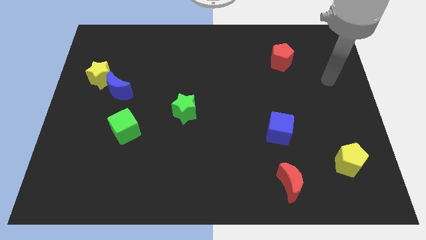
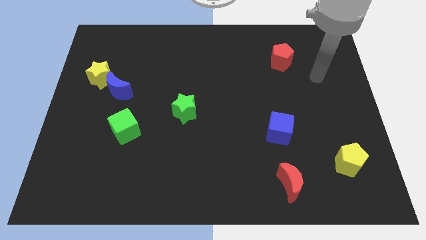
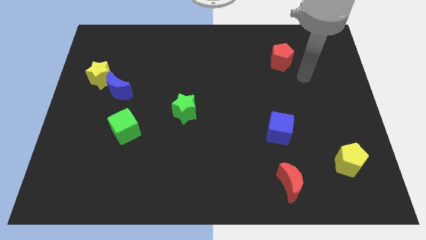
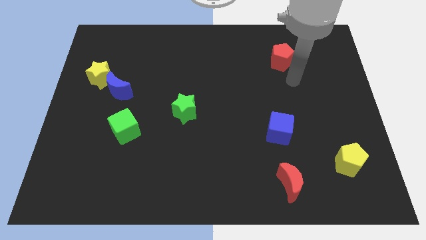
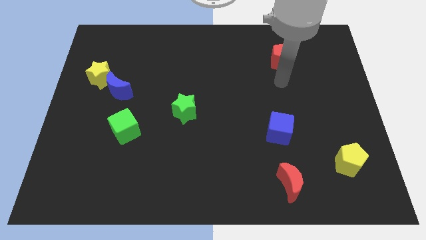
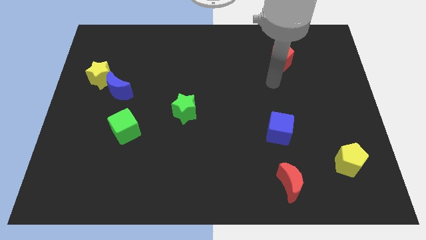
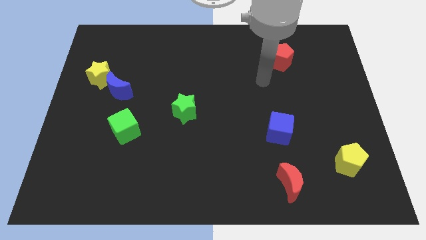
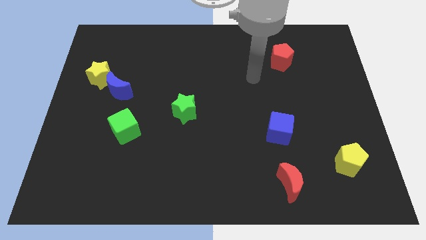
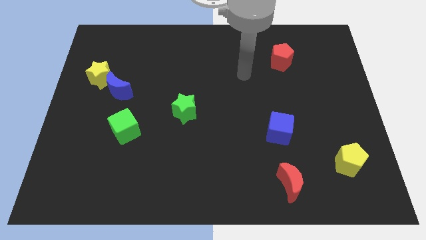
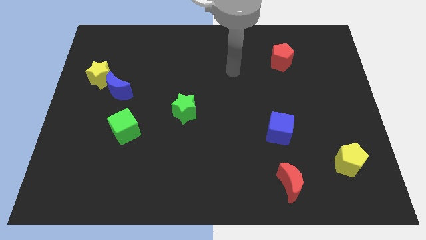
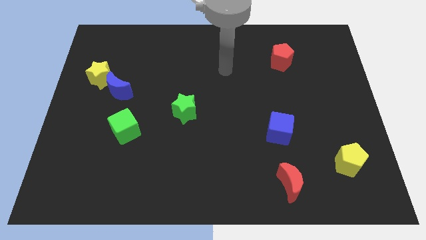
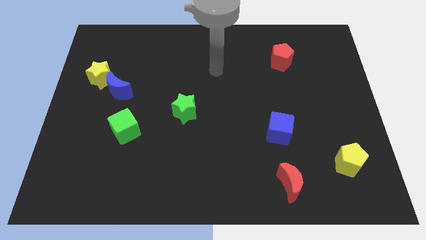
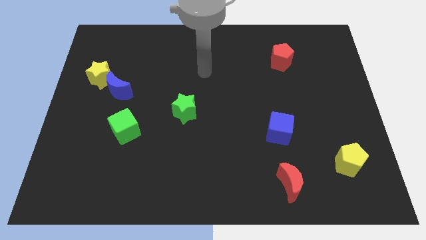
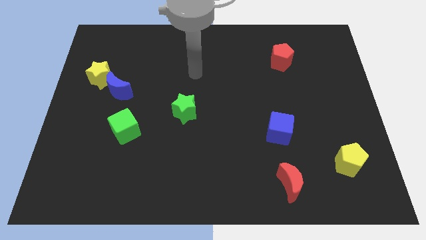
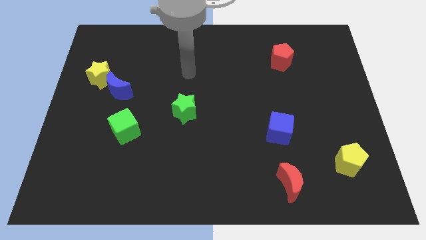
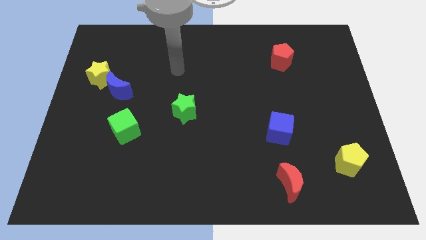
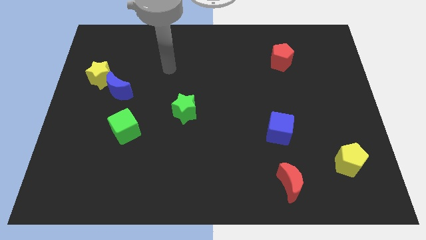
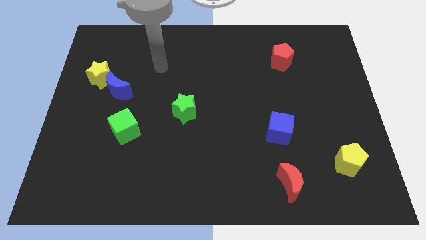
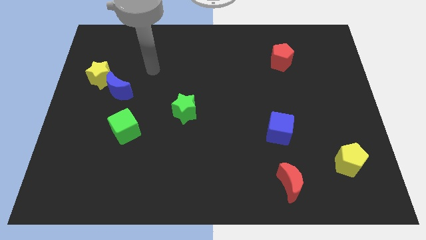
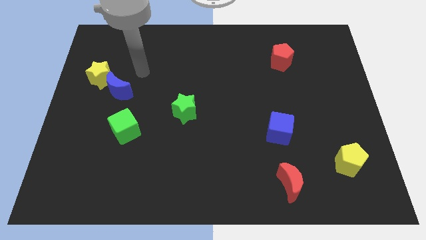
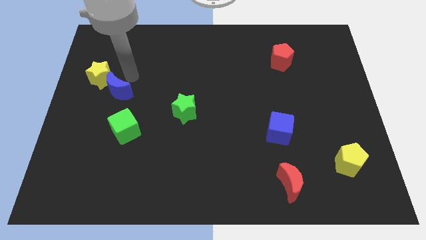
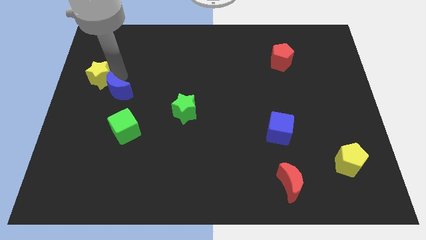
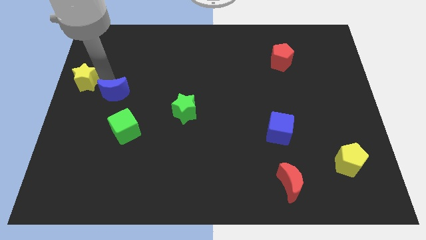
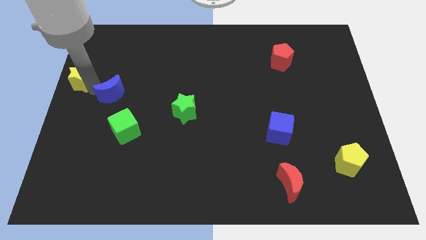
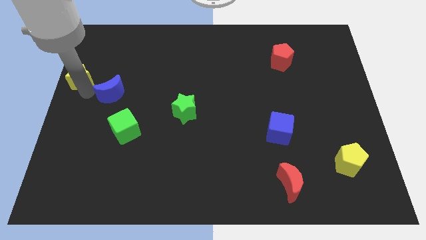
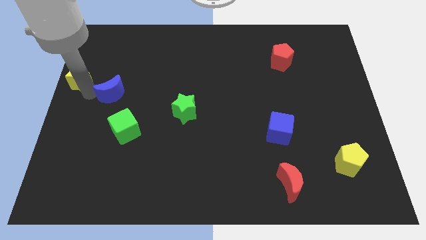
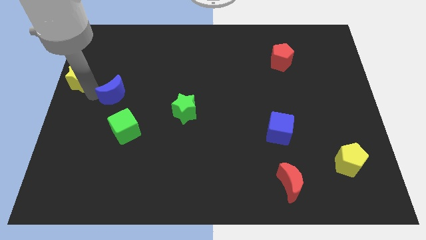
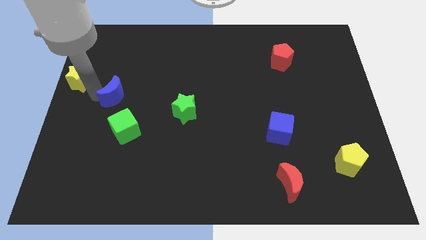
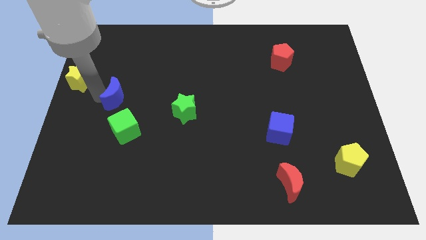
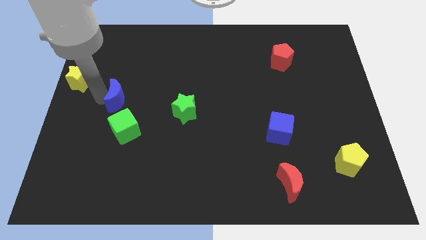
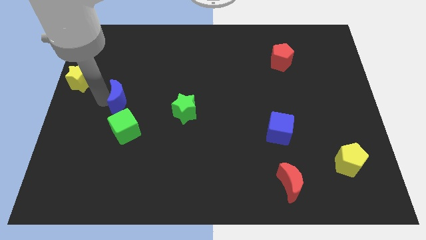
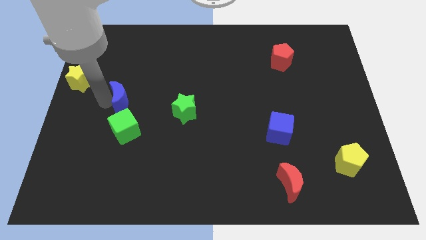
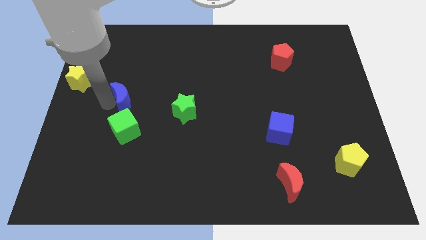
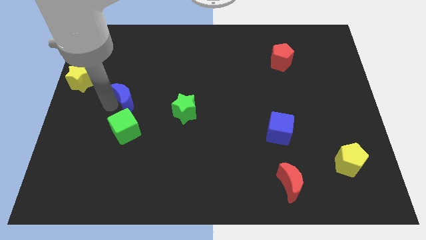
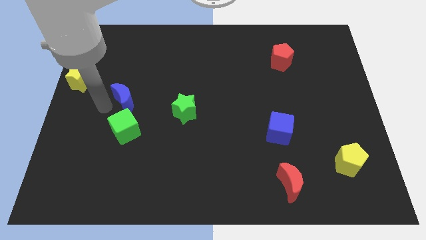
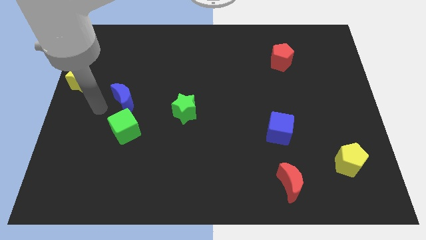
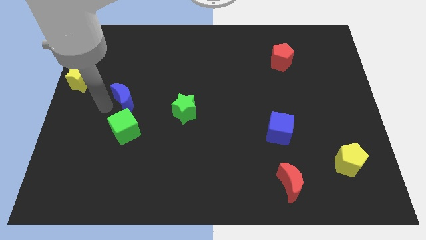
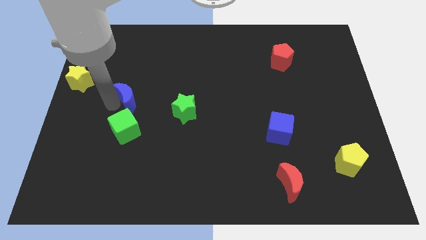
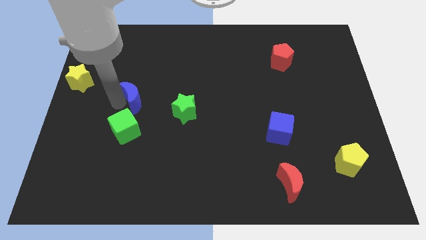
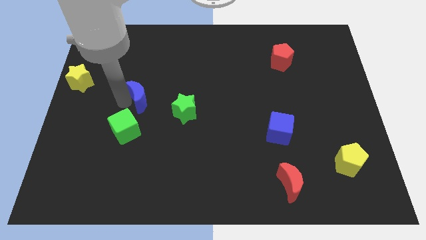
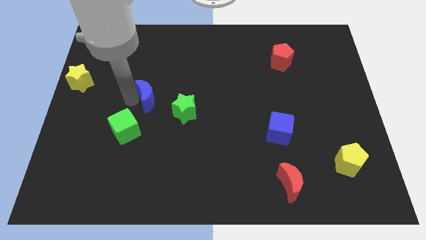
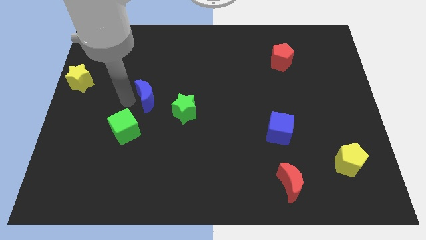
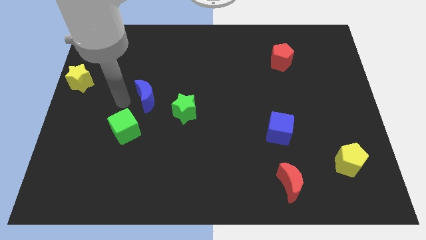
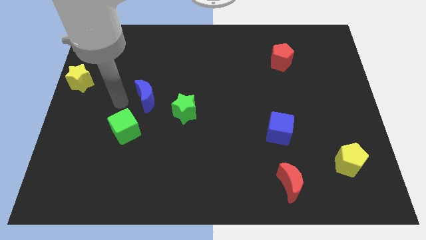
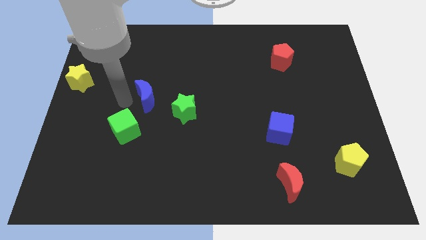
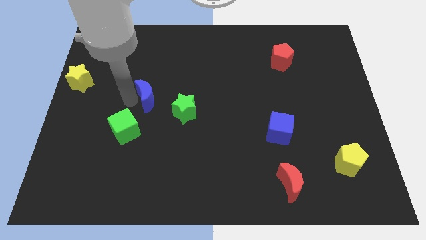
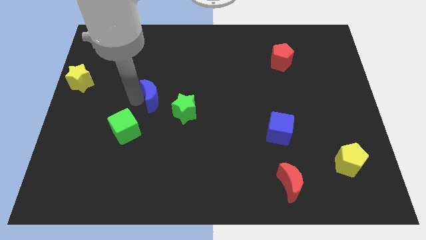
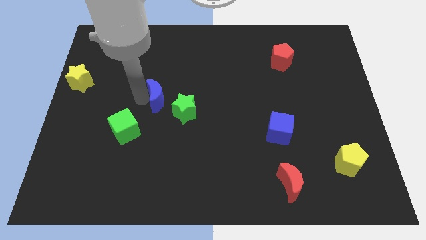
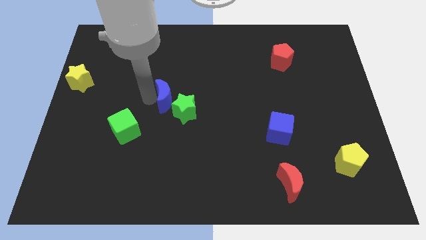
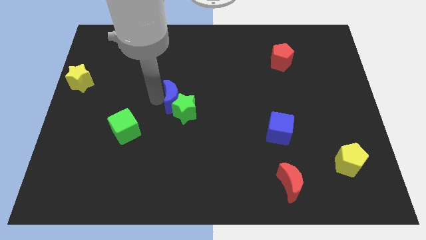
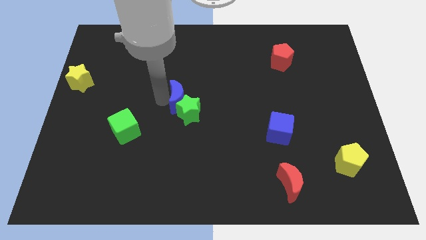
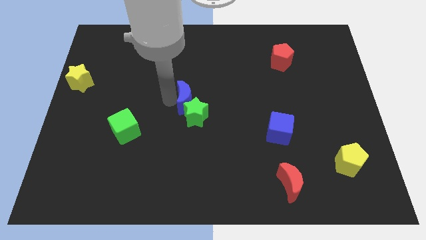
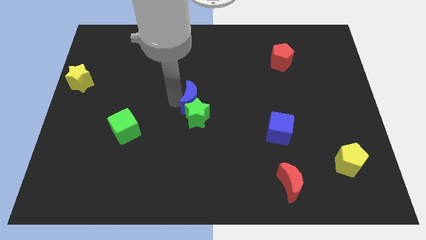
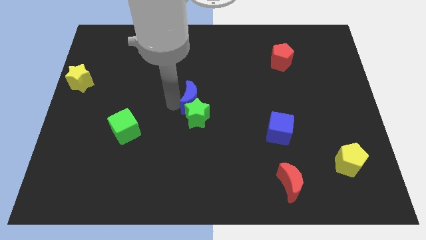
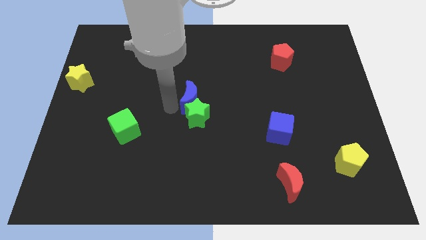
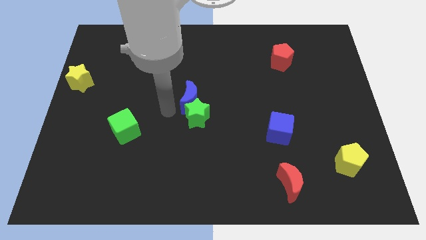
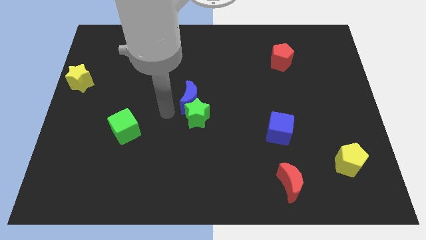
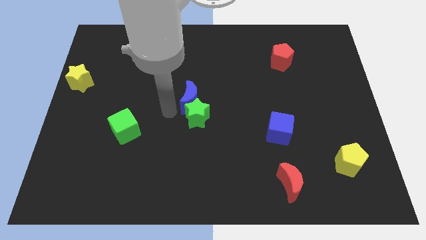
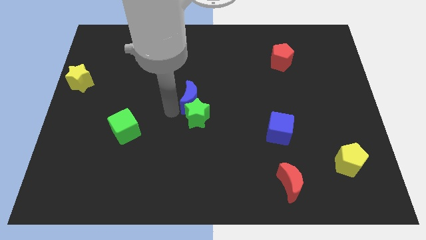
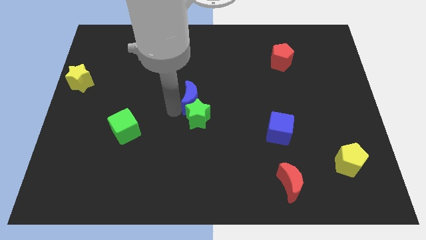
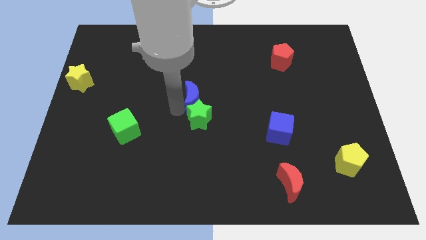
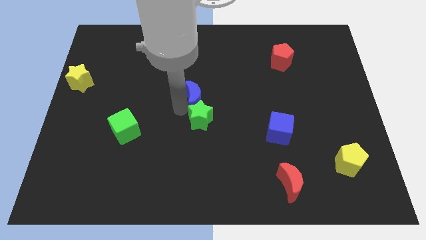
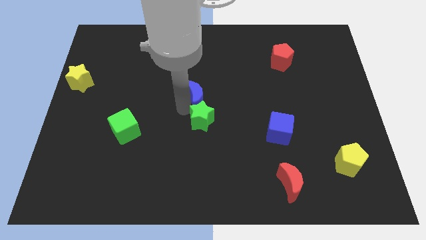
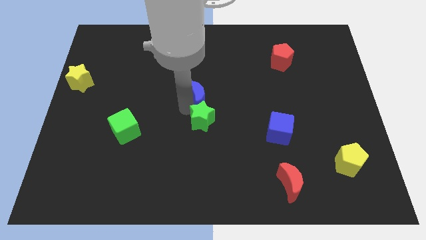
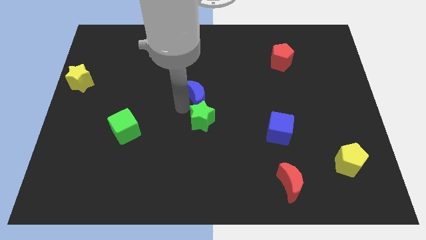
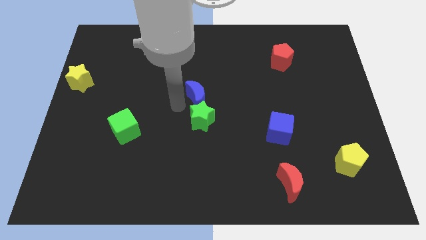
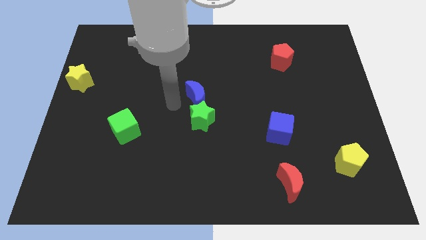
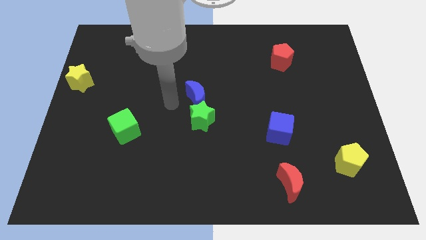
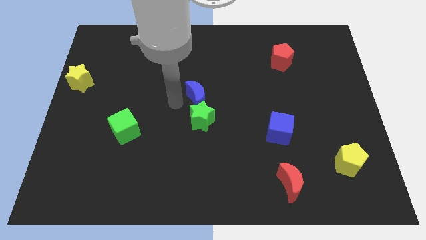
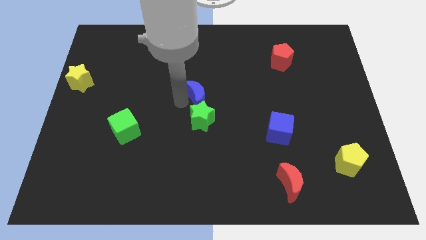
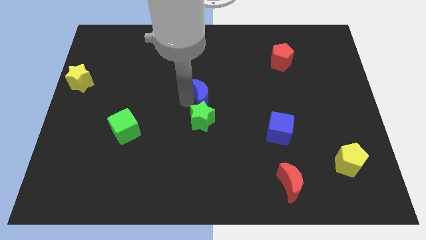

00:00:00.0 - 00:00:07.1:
slide the blue moon right

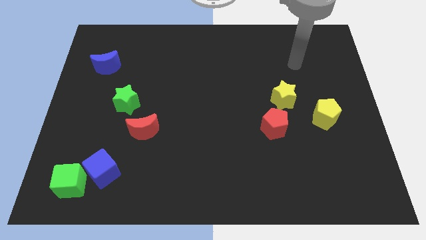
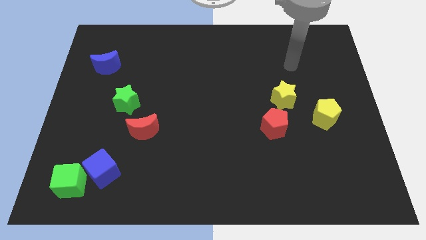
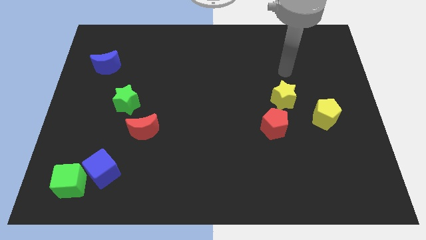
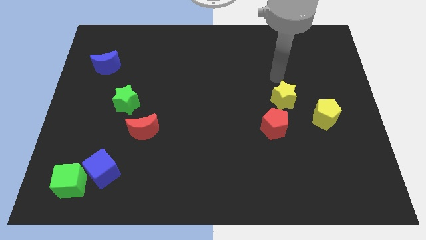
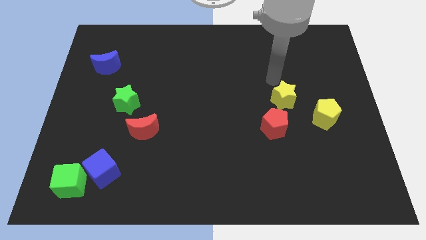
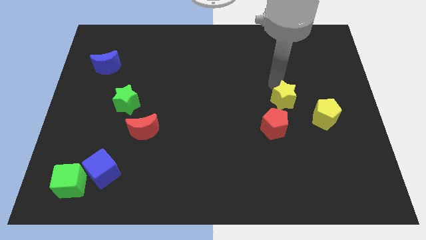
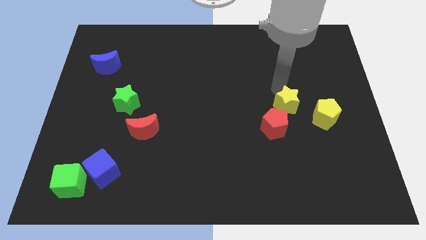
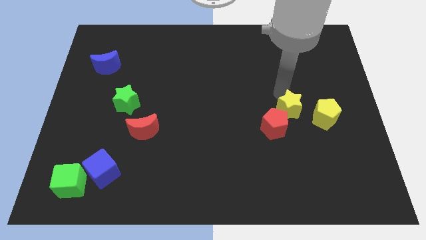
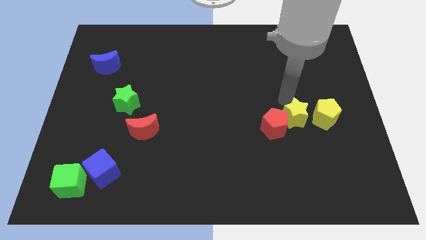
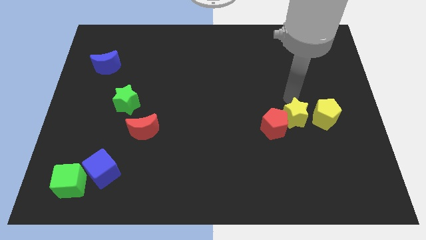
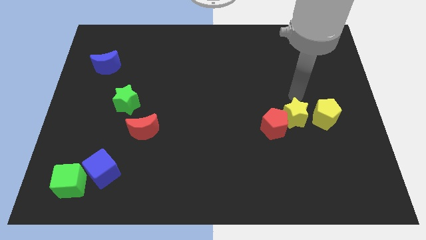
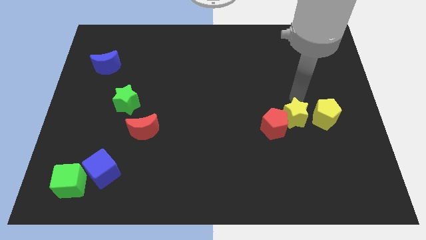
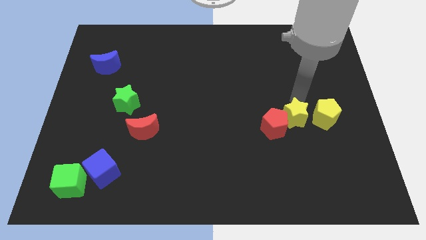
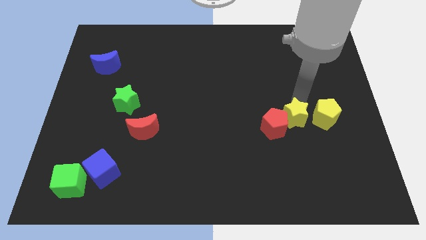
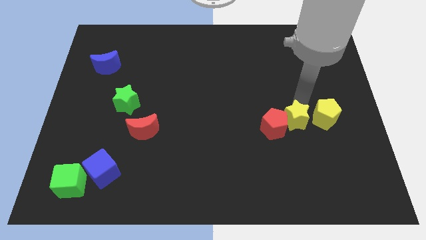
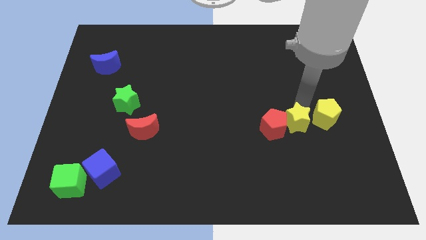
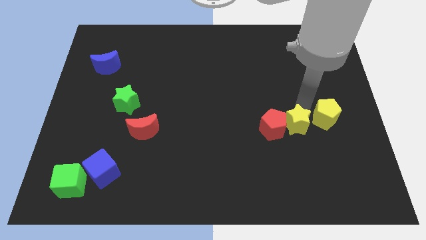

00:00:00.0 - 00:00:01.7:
move the yellow star down a little bit
